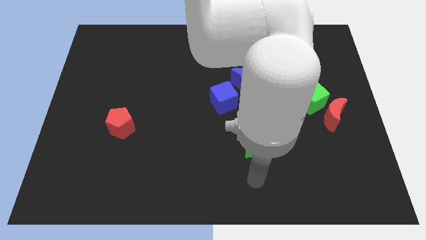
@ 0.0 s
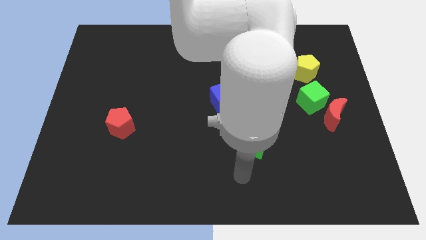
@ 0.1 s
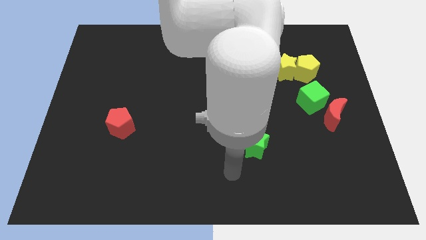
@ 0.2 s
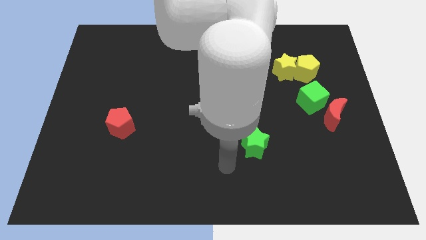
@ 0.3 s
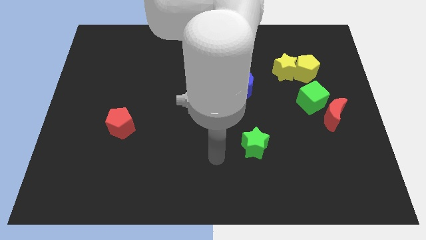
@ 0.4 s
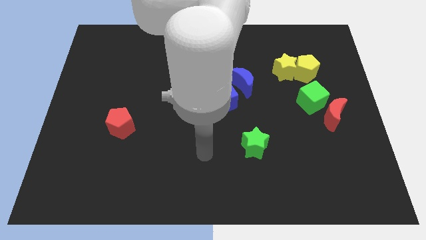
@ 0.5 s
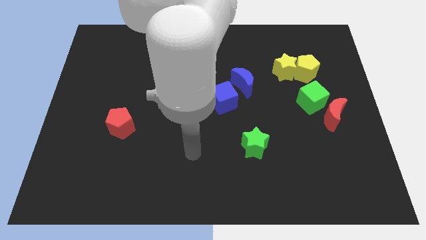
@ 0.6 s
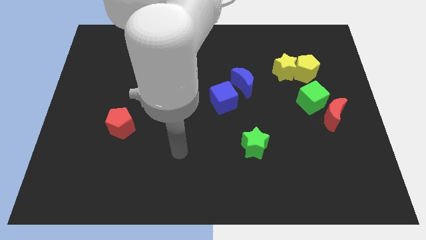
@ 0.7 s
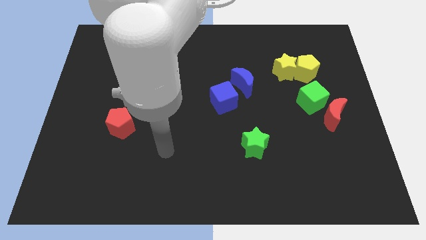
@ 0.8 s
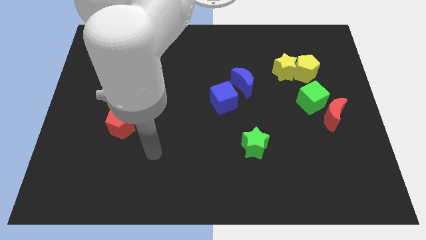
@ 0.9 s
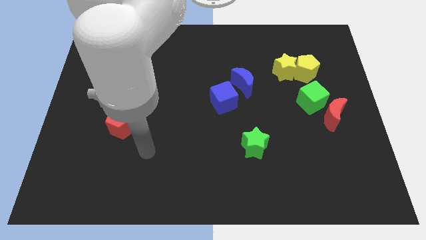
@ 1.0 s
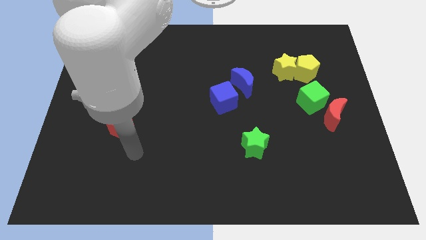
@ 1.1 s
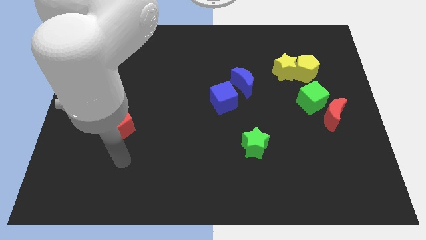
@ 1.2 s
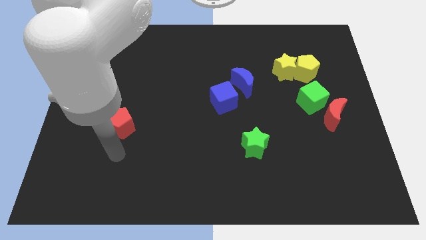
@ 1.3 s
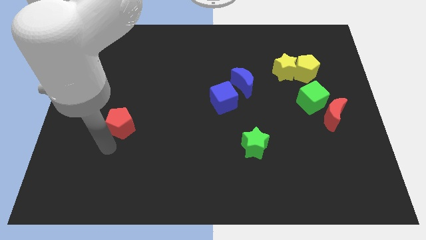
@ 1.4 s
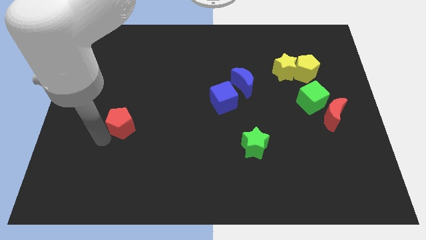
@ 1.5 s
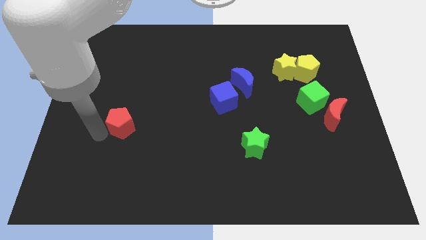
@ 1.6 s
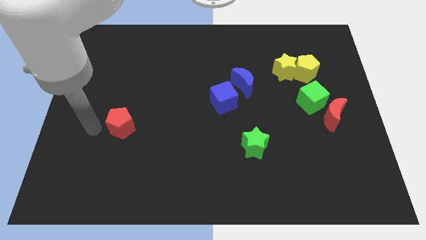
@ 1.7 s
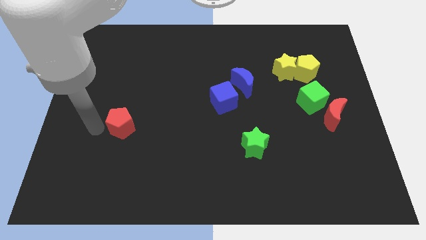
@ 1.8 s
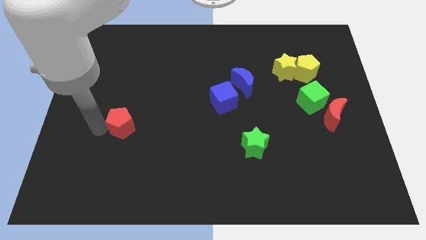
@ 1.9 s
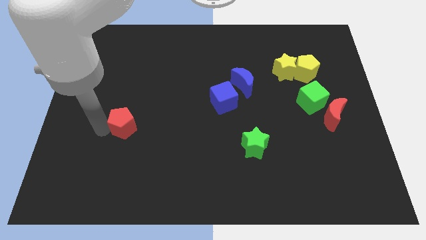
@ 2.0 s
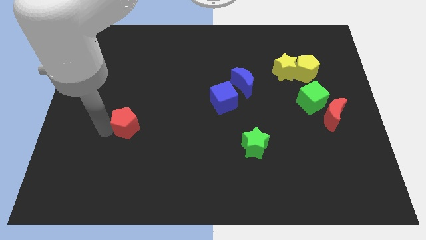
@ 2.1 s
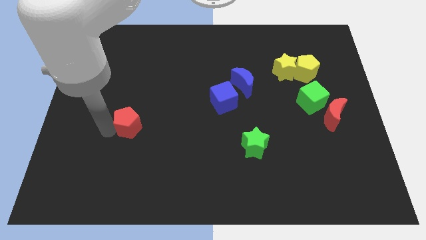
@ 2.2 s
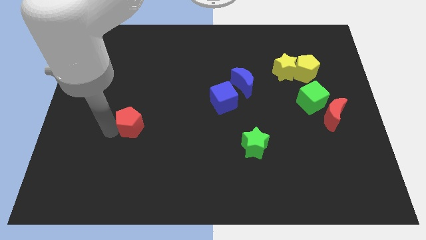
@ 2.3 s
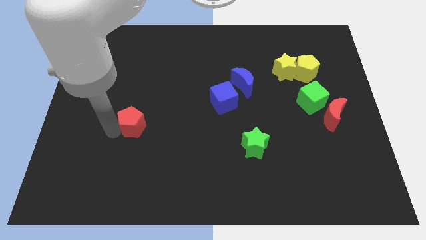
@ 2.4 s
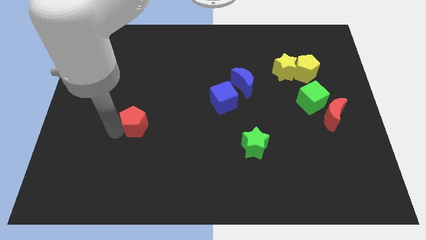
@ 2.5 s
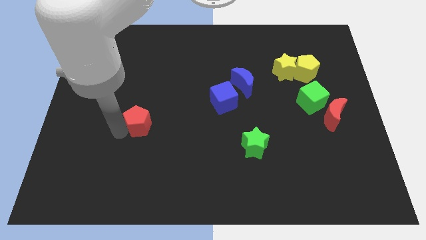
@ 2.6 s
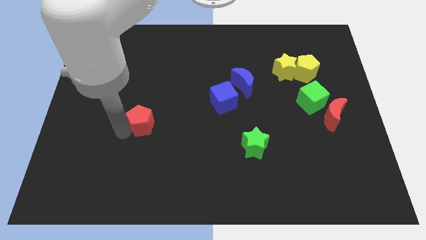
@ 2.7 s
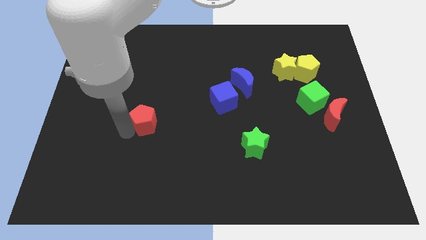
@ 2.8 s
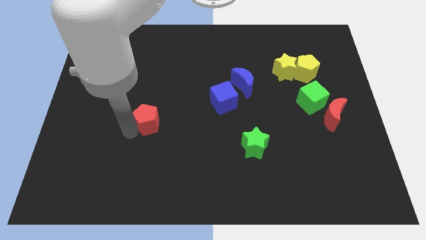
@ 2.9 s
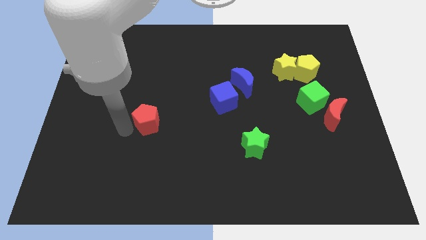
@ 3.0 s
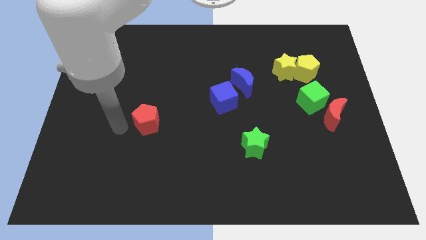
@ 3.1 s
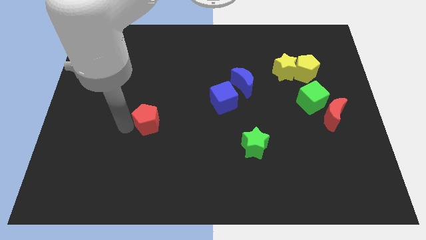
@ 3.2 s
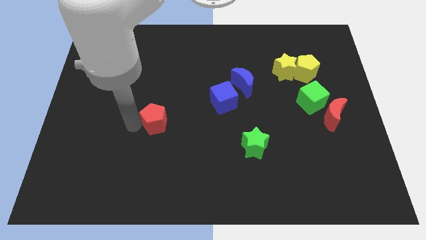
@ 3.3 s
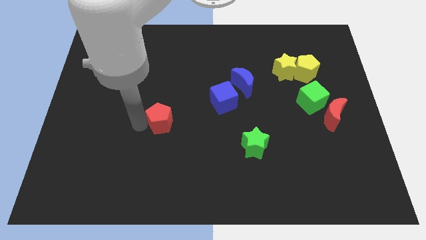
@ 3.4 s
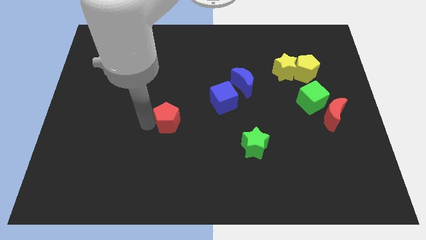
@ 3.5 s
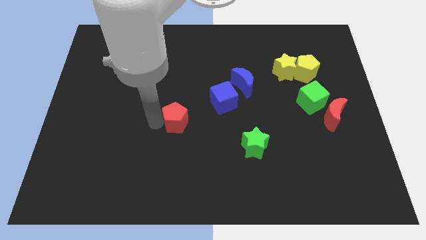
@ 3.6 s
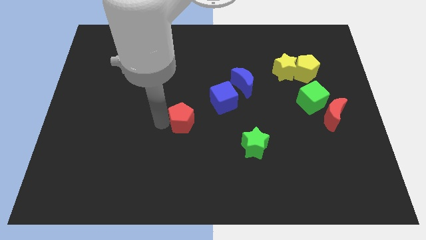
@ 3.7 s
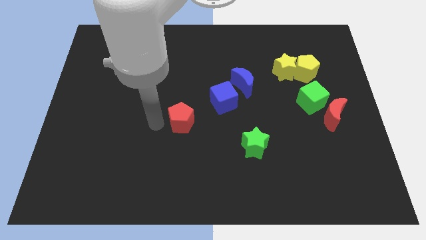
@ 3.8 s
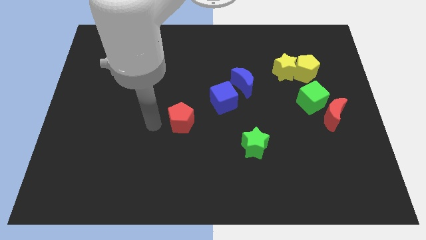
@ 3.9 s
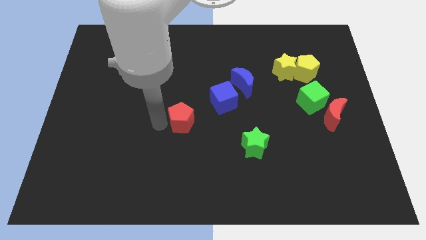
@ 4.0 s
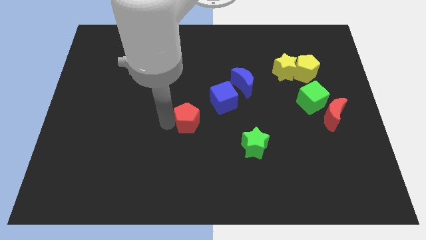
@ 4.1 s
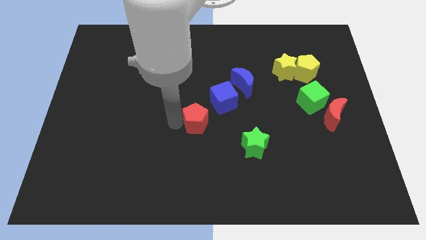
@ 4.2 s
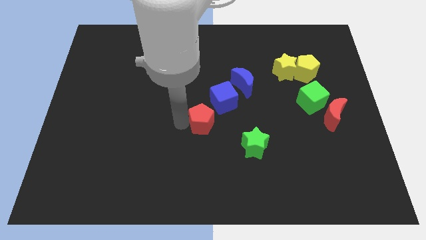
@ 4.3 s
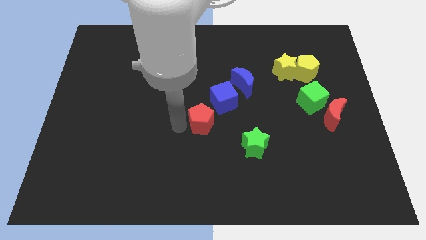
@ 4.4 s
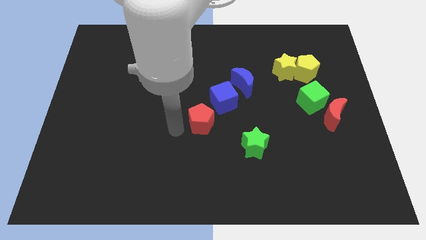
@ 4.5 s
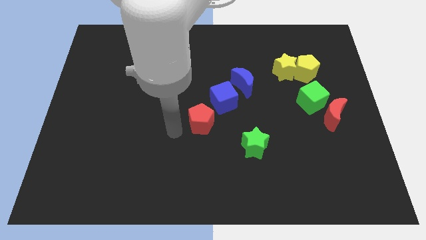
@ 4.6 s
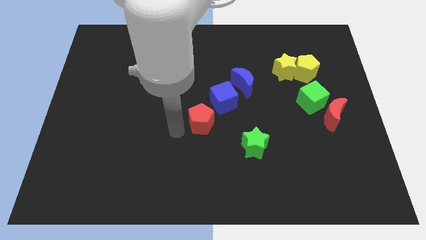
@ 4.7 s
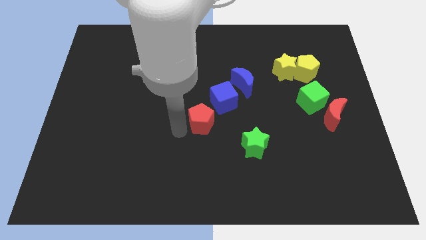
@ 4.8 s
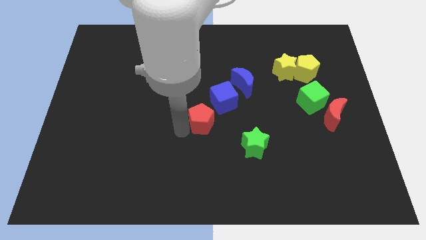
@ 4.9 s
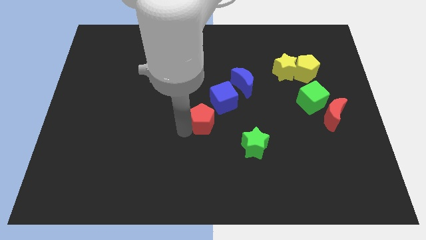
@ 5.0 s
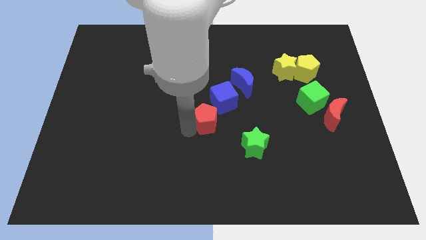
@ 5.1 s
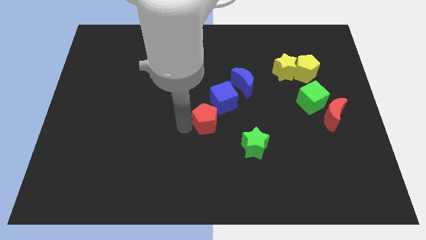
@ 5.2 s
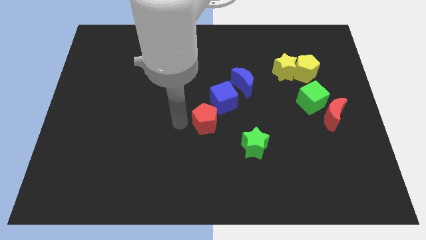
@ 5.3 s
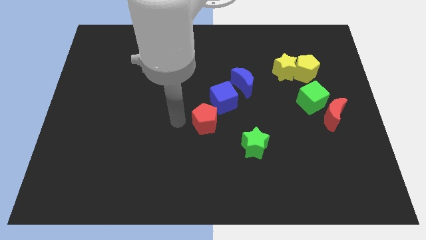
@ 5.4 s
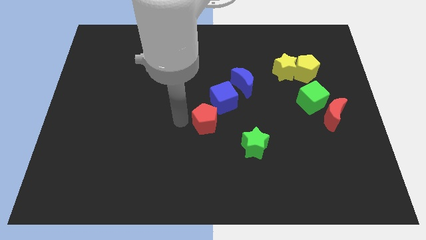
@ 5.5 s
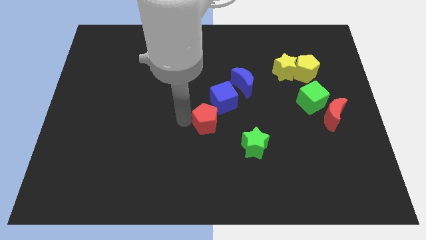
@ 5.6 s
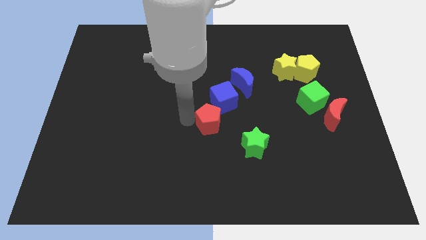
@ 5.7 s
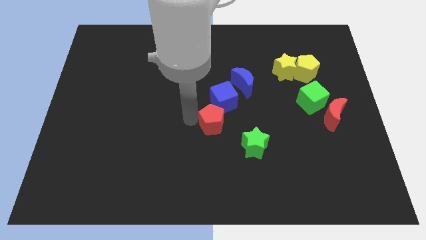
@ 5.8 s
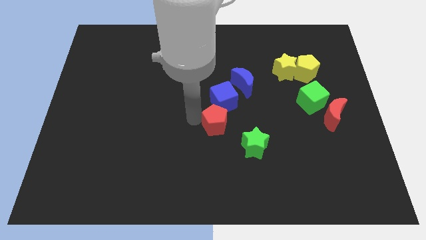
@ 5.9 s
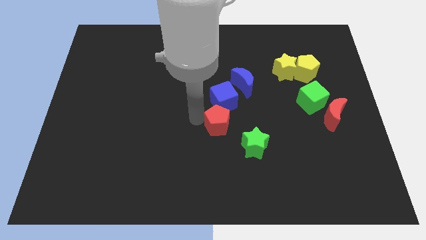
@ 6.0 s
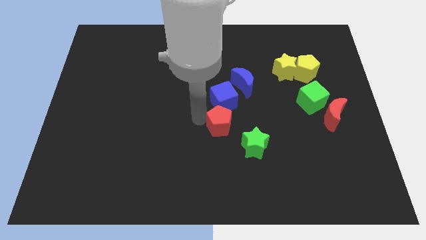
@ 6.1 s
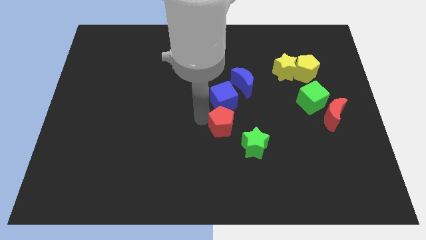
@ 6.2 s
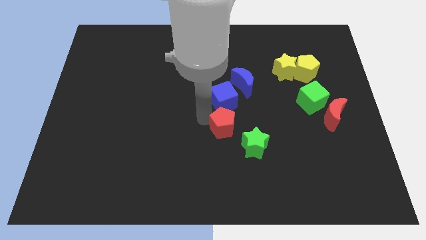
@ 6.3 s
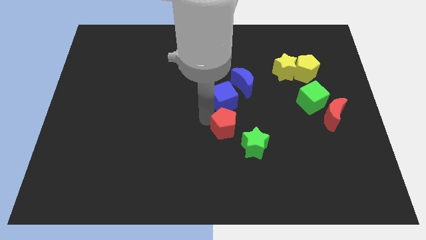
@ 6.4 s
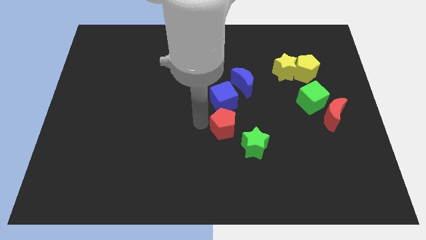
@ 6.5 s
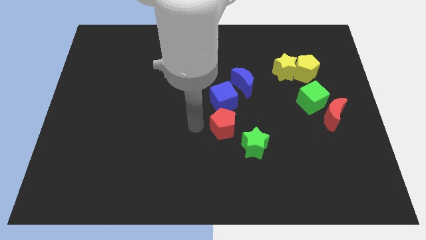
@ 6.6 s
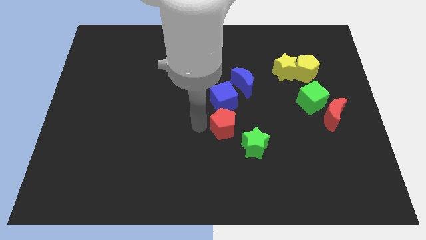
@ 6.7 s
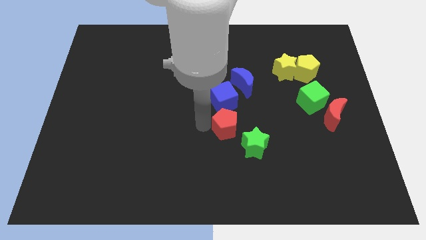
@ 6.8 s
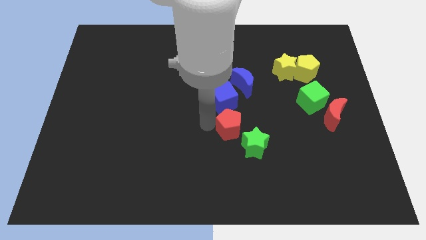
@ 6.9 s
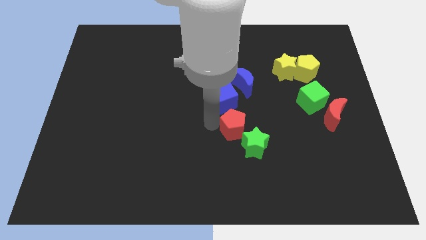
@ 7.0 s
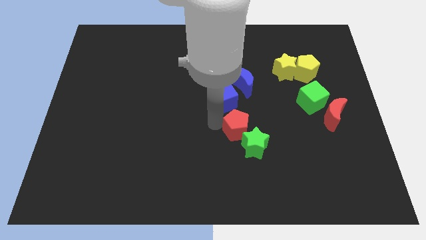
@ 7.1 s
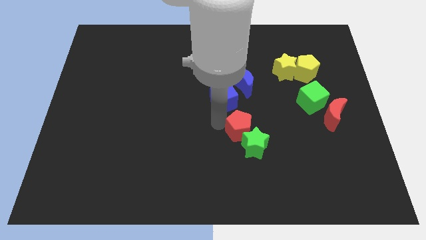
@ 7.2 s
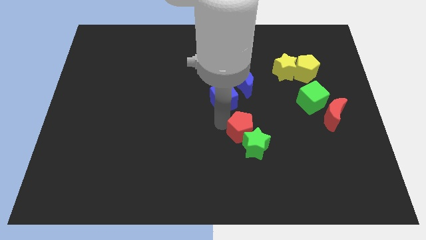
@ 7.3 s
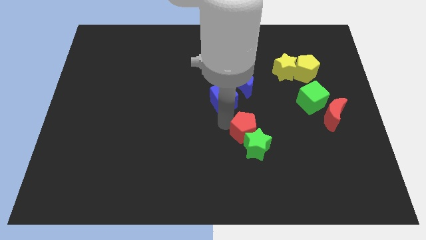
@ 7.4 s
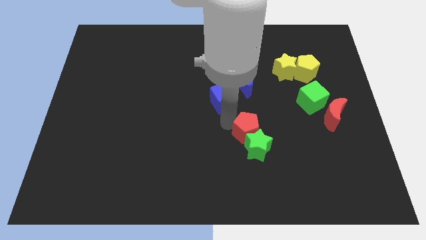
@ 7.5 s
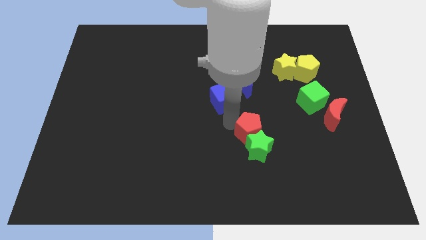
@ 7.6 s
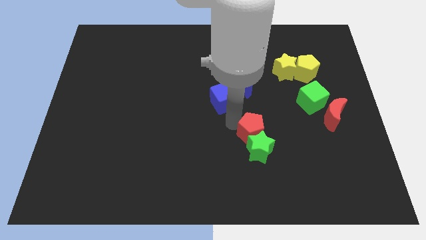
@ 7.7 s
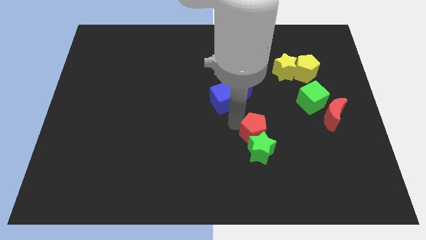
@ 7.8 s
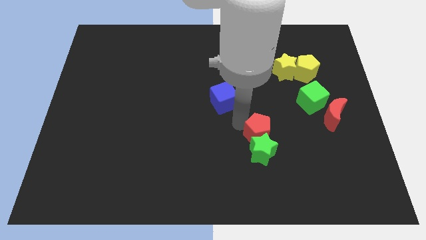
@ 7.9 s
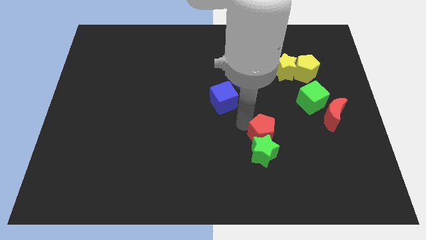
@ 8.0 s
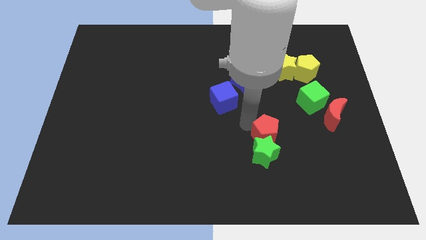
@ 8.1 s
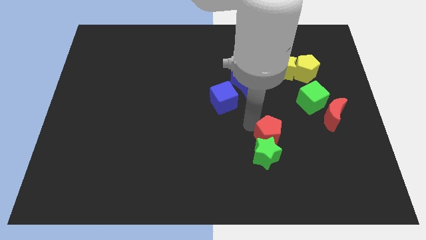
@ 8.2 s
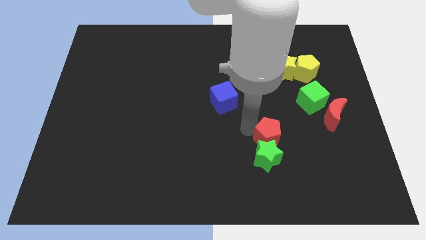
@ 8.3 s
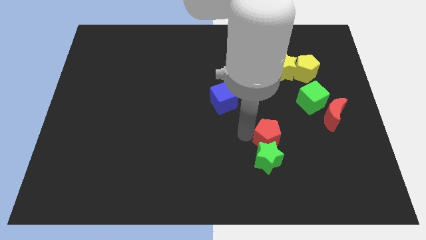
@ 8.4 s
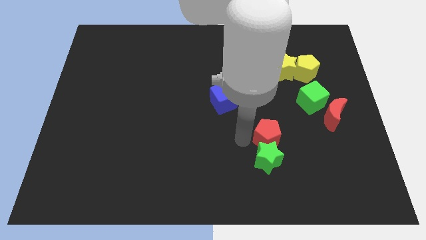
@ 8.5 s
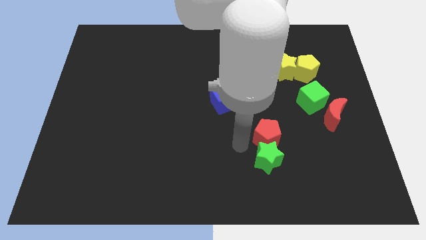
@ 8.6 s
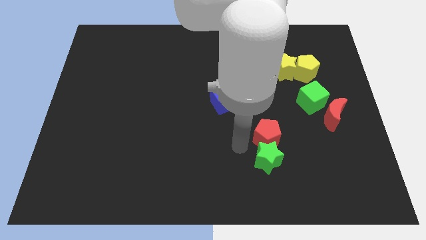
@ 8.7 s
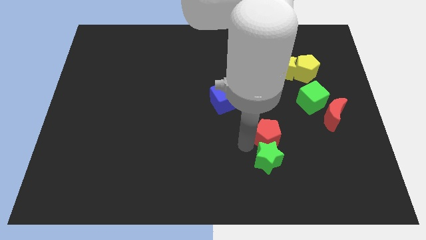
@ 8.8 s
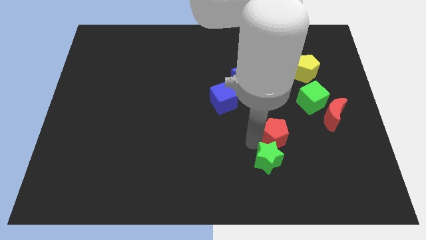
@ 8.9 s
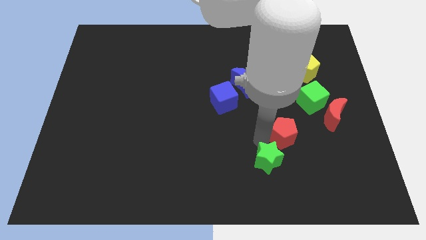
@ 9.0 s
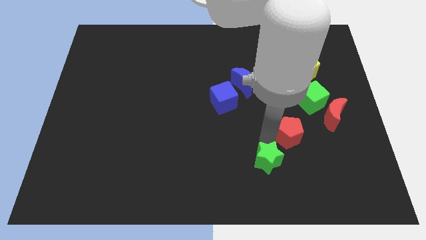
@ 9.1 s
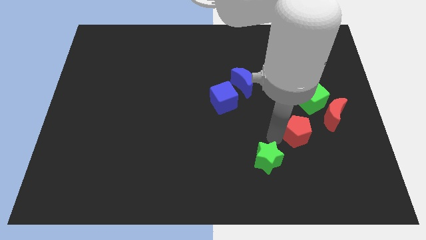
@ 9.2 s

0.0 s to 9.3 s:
slide the red pentagon to the bottom side of the green cube
